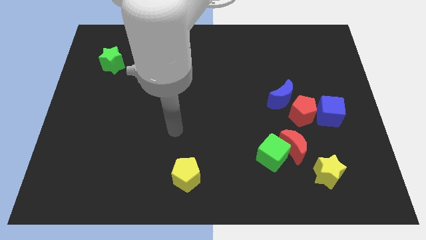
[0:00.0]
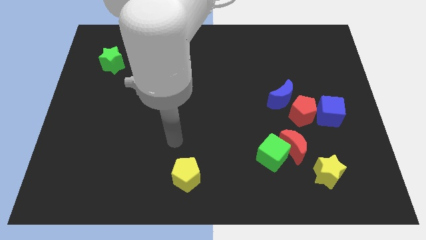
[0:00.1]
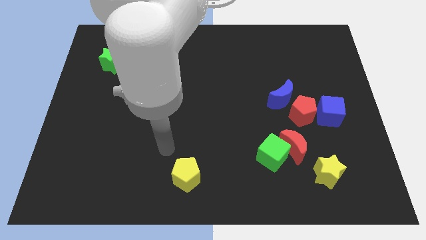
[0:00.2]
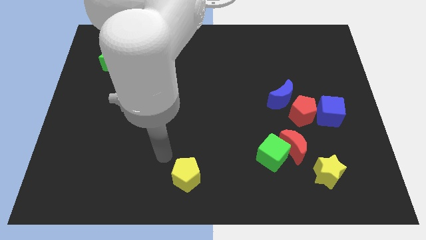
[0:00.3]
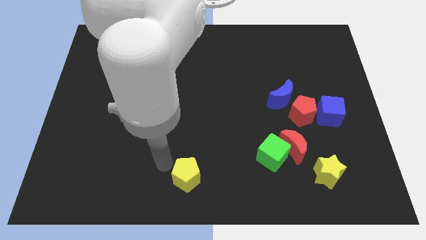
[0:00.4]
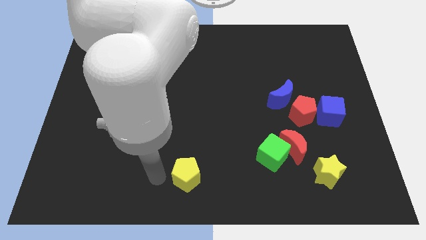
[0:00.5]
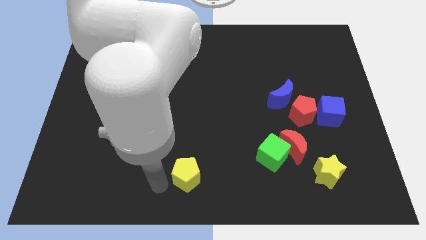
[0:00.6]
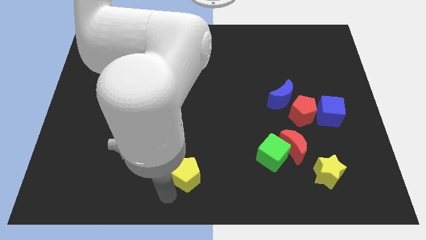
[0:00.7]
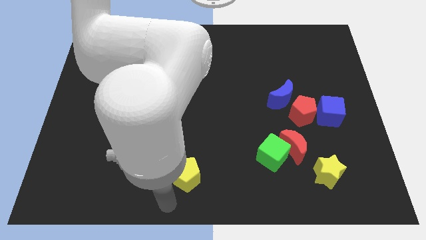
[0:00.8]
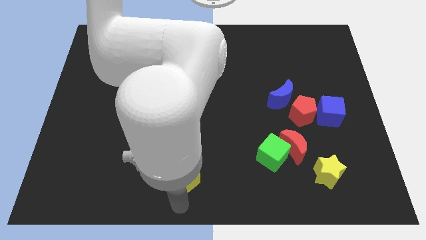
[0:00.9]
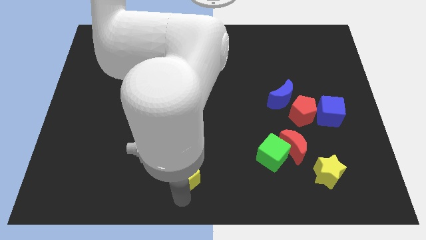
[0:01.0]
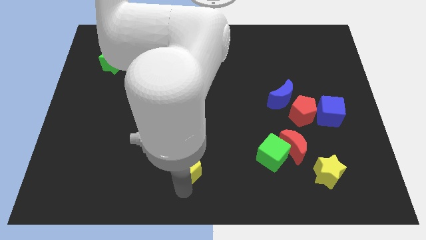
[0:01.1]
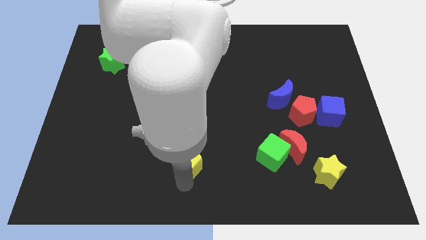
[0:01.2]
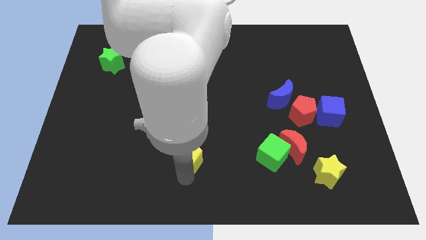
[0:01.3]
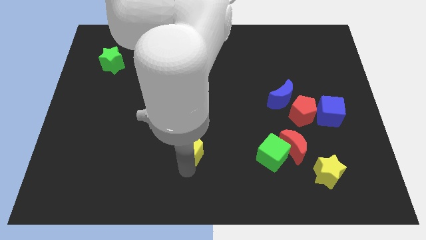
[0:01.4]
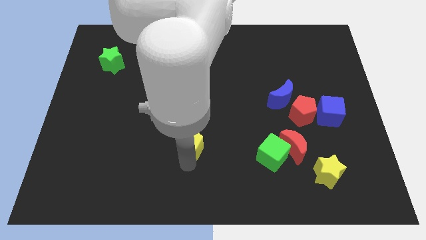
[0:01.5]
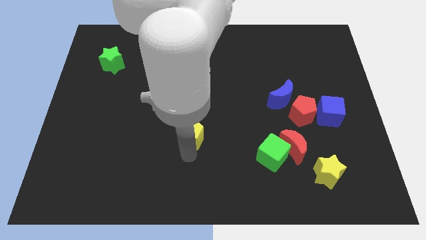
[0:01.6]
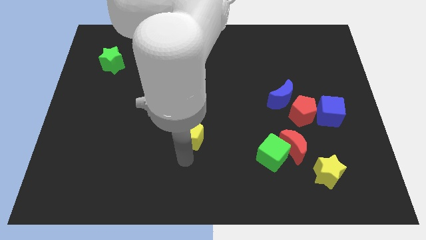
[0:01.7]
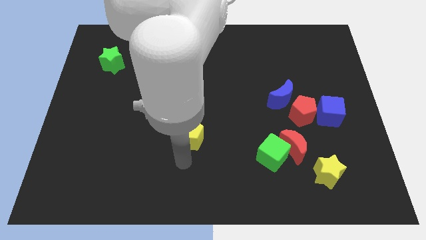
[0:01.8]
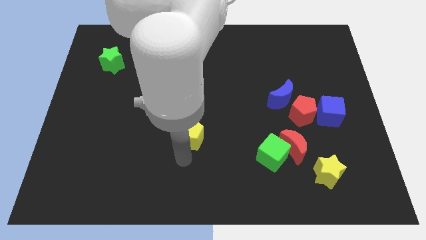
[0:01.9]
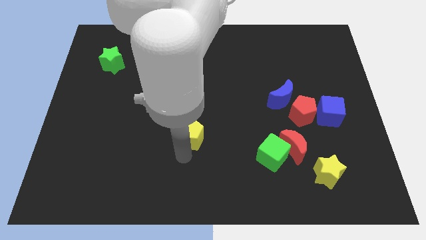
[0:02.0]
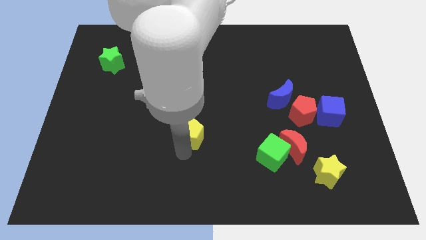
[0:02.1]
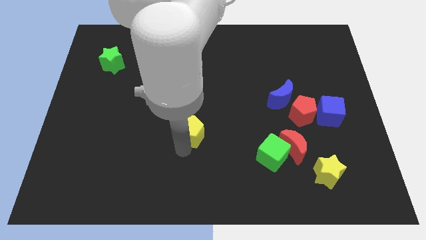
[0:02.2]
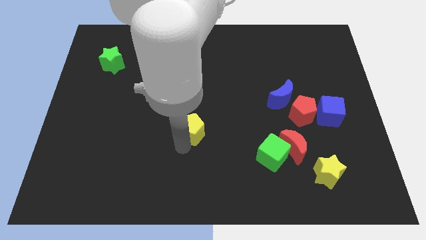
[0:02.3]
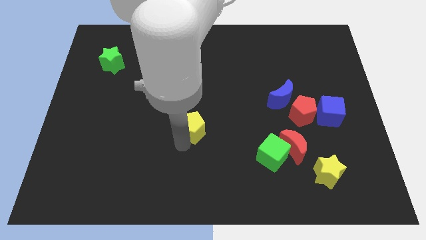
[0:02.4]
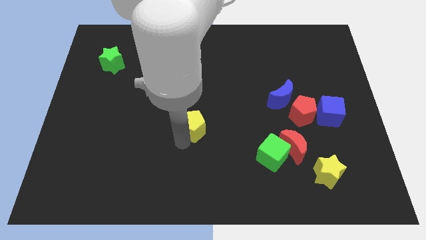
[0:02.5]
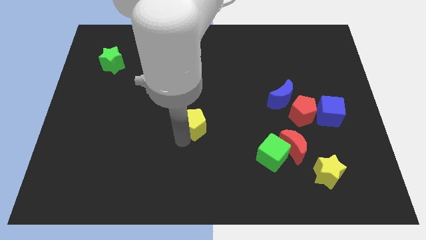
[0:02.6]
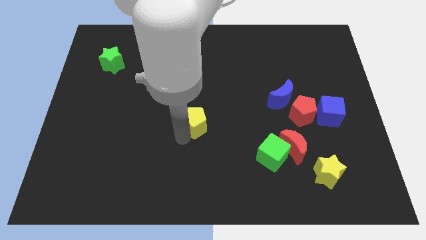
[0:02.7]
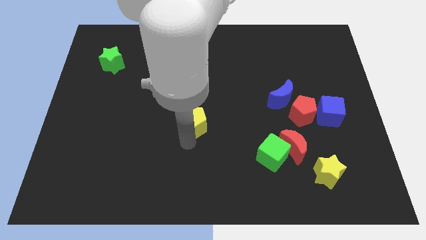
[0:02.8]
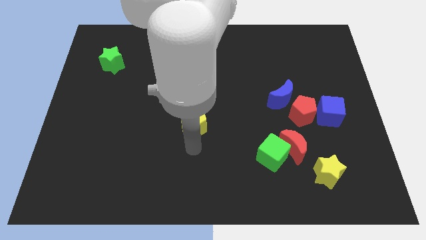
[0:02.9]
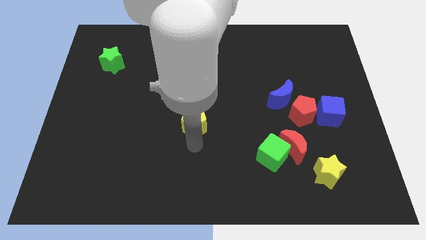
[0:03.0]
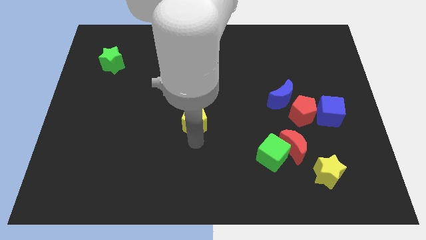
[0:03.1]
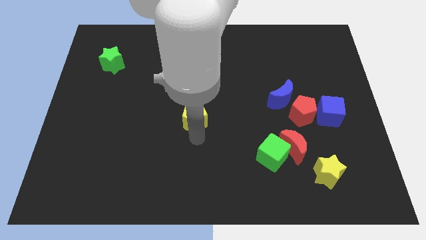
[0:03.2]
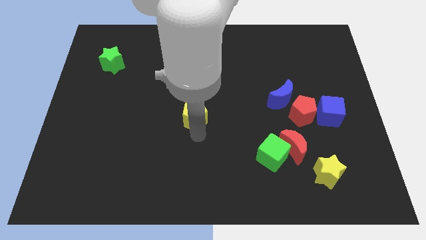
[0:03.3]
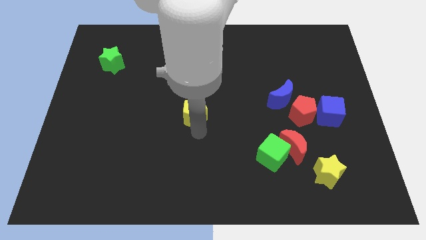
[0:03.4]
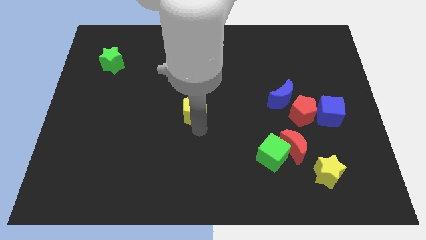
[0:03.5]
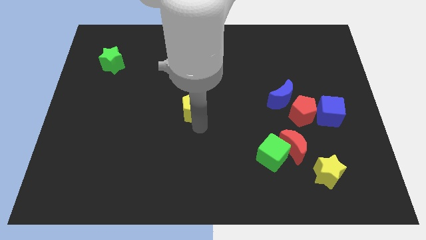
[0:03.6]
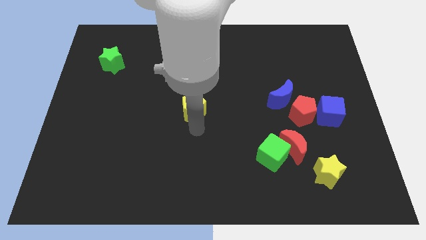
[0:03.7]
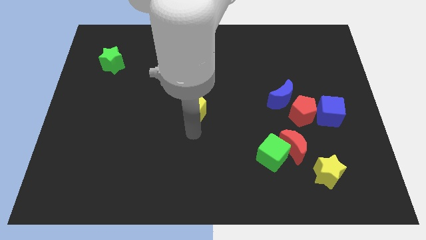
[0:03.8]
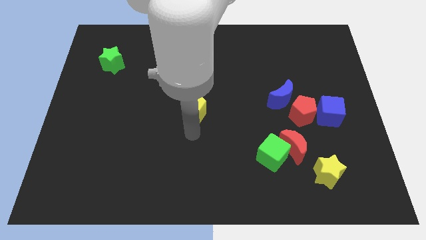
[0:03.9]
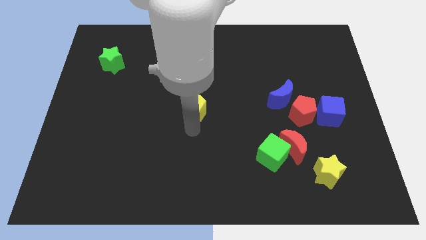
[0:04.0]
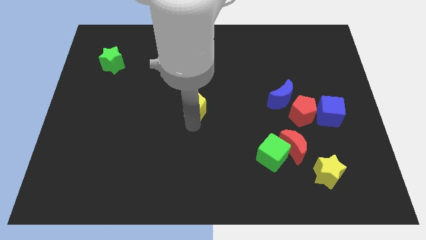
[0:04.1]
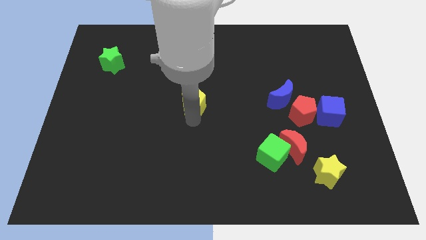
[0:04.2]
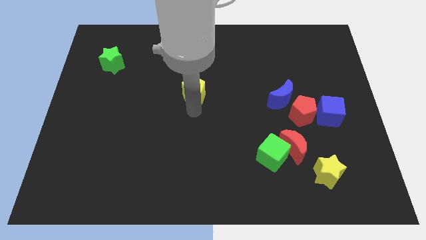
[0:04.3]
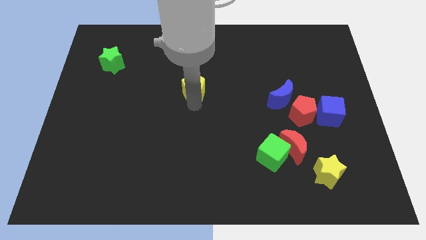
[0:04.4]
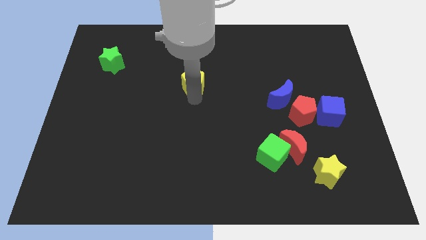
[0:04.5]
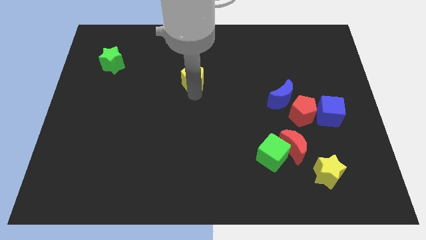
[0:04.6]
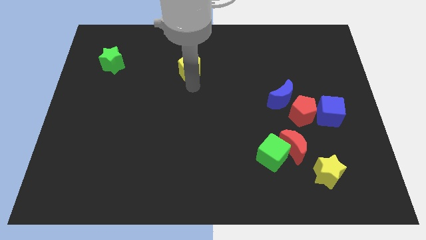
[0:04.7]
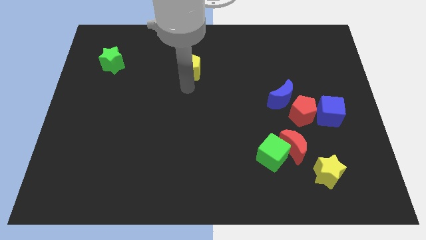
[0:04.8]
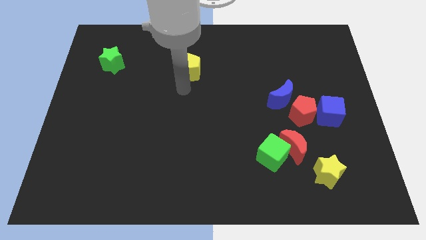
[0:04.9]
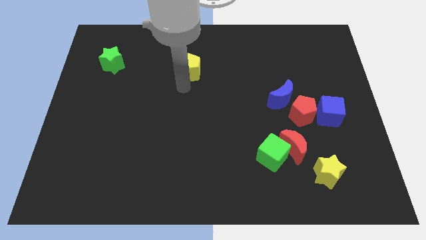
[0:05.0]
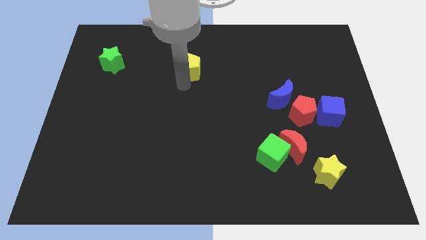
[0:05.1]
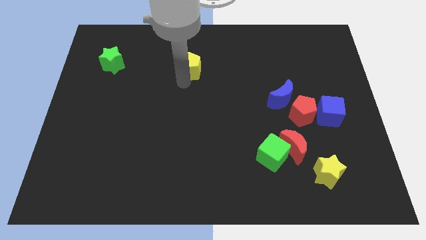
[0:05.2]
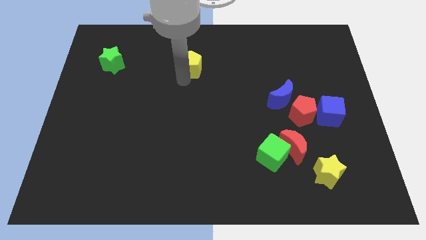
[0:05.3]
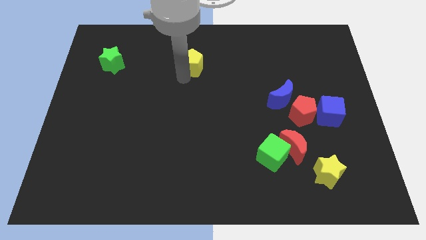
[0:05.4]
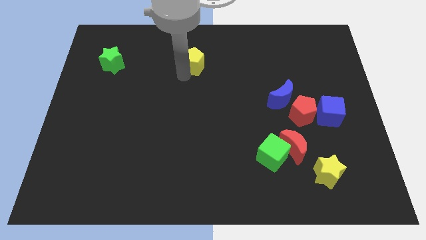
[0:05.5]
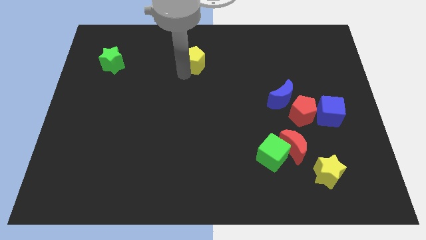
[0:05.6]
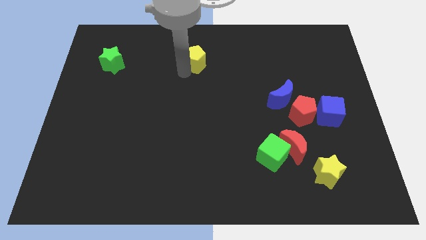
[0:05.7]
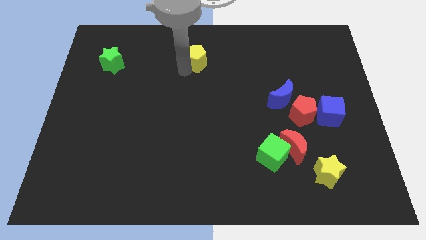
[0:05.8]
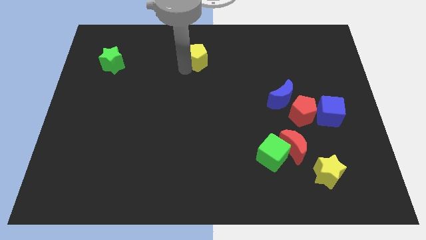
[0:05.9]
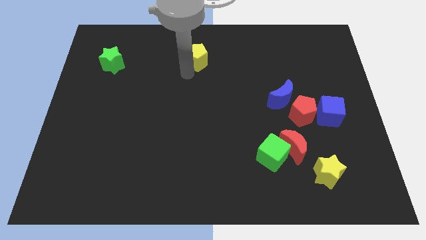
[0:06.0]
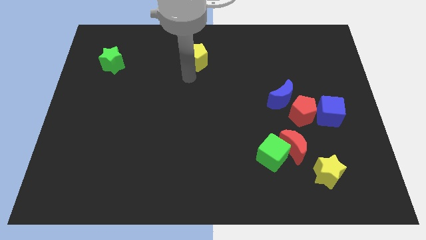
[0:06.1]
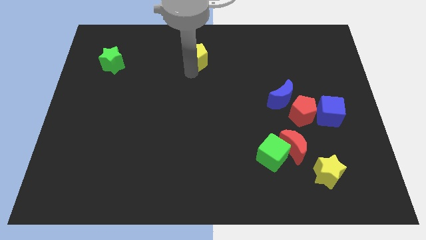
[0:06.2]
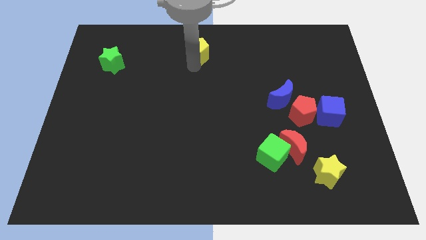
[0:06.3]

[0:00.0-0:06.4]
push the yellow pentagon to the towards your base

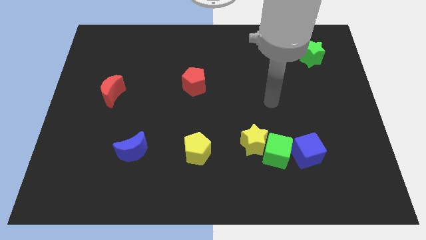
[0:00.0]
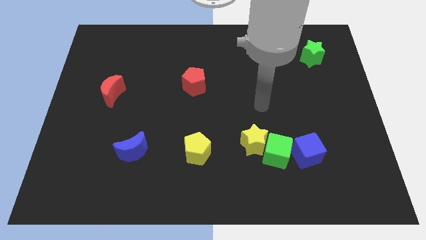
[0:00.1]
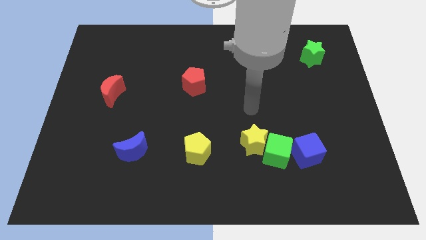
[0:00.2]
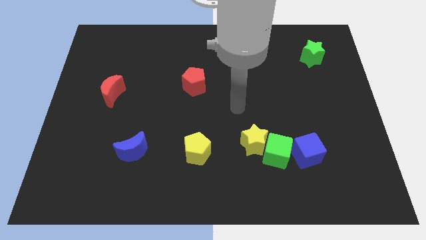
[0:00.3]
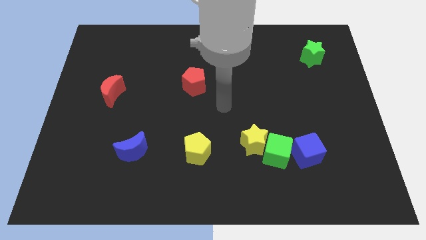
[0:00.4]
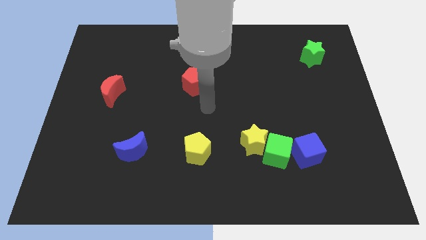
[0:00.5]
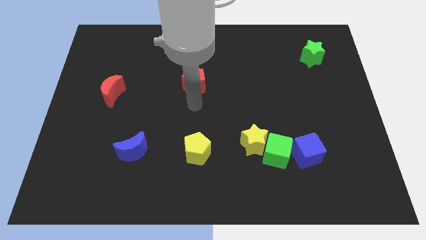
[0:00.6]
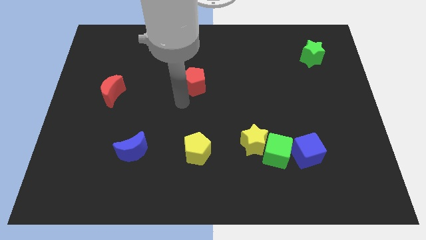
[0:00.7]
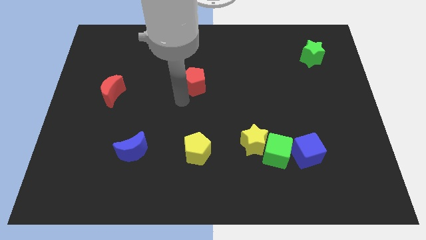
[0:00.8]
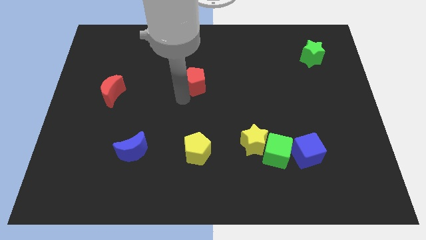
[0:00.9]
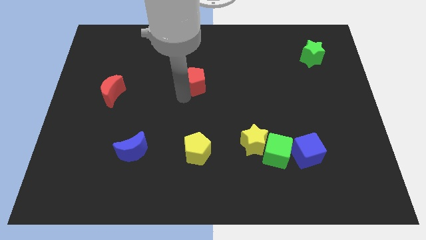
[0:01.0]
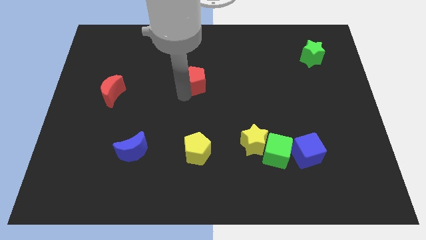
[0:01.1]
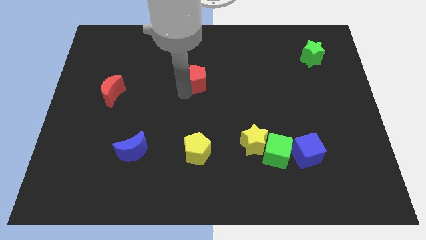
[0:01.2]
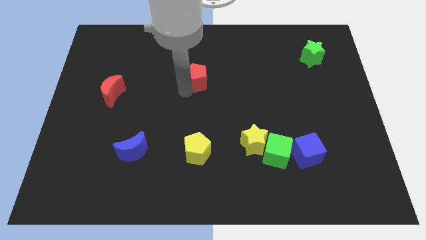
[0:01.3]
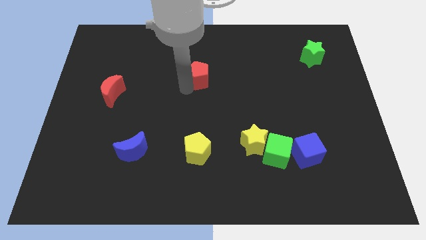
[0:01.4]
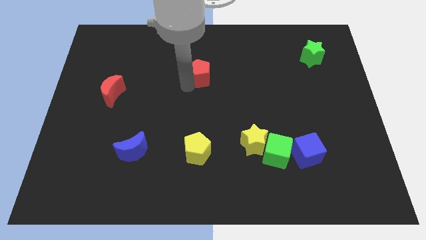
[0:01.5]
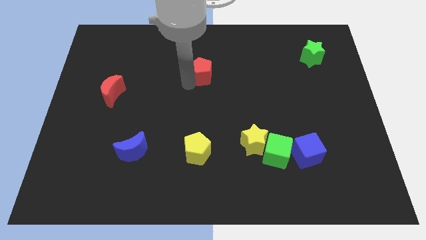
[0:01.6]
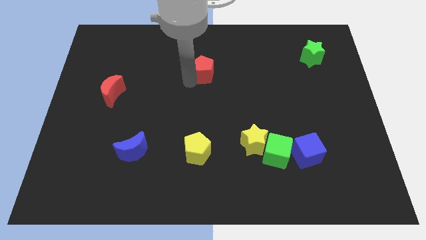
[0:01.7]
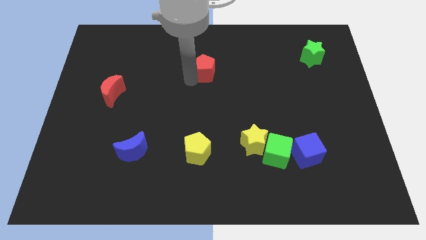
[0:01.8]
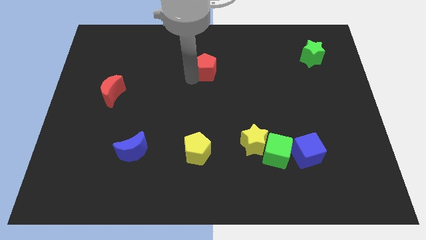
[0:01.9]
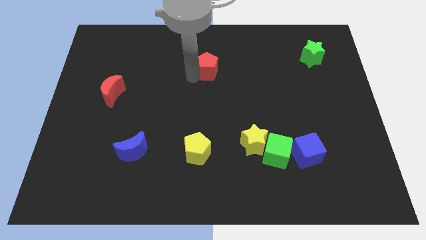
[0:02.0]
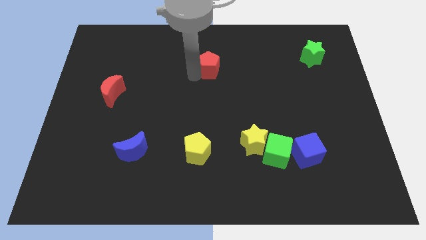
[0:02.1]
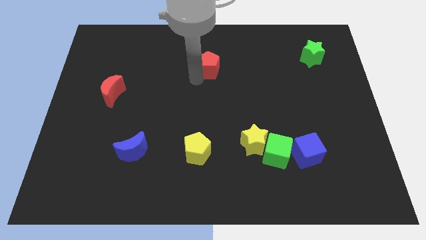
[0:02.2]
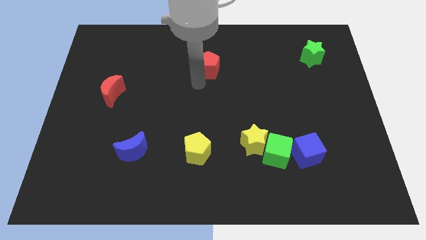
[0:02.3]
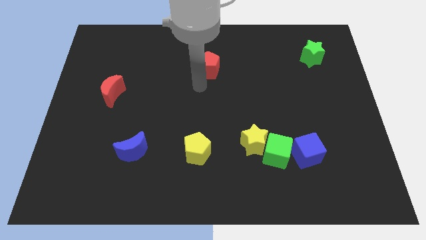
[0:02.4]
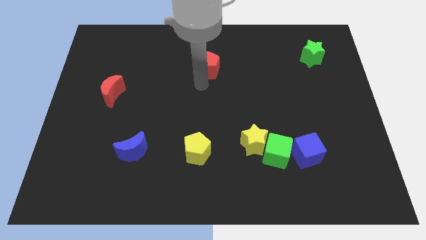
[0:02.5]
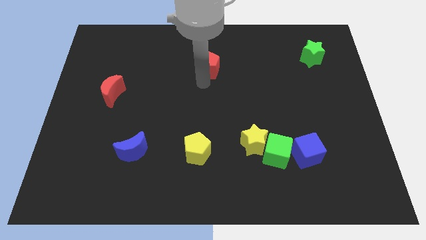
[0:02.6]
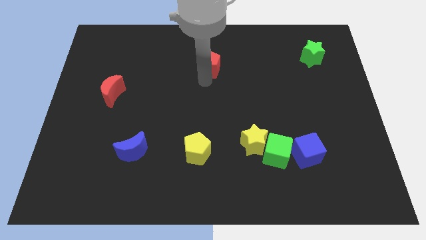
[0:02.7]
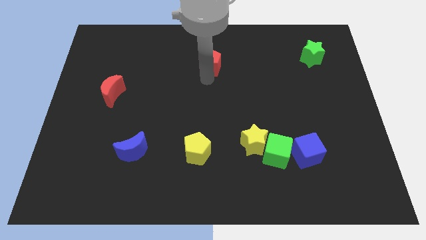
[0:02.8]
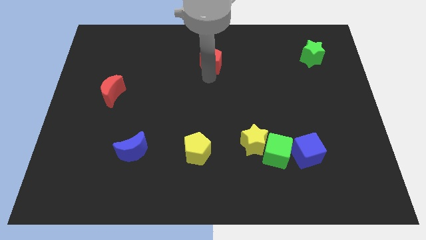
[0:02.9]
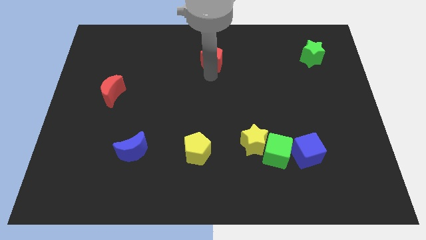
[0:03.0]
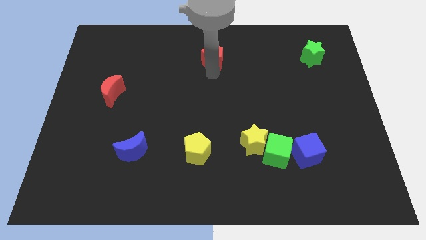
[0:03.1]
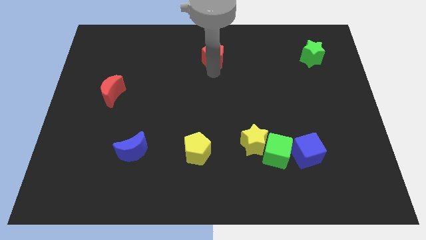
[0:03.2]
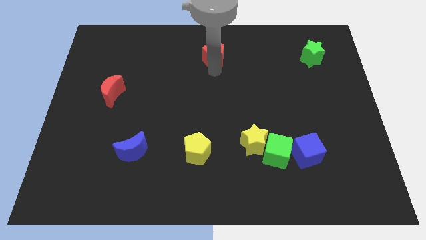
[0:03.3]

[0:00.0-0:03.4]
put the red pentagon to the towards your base
